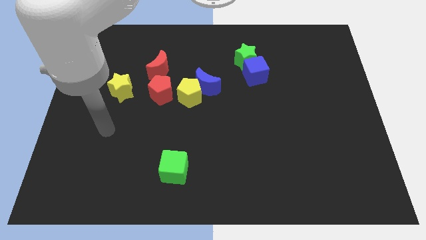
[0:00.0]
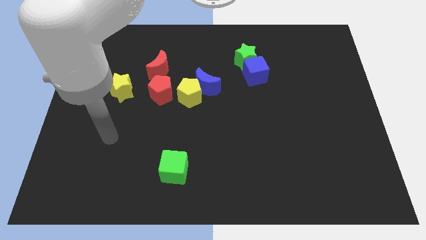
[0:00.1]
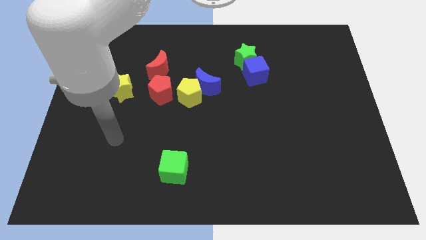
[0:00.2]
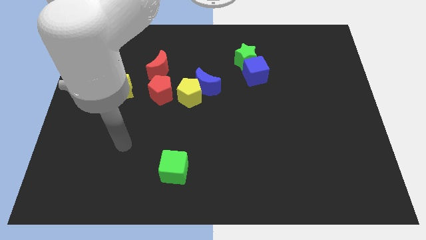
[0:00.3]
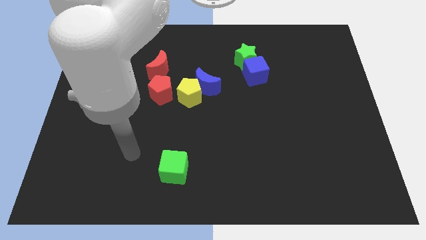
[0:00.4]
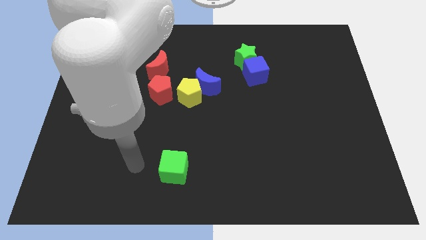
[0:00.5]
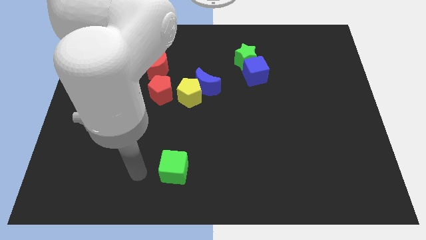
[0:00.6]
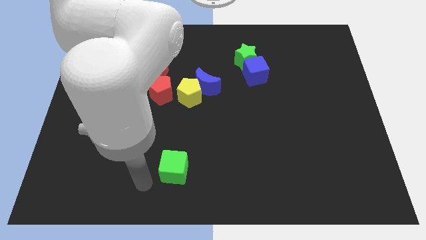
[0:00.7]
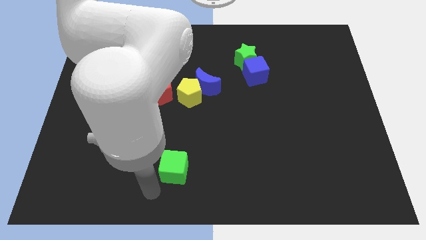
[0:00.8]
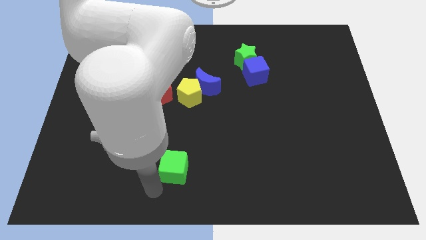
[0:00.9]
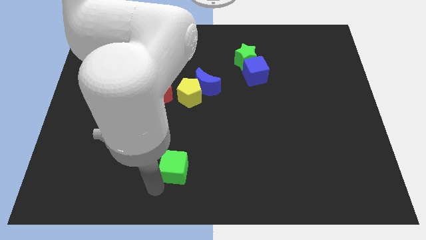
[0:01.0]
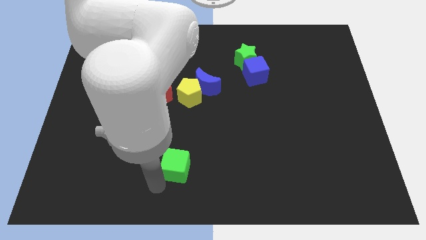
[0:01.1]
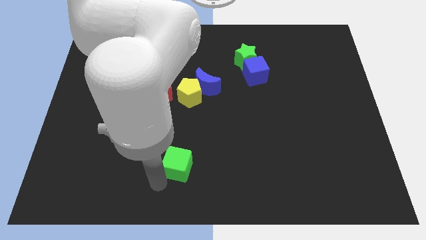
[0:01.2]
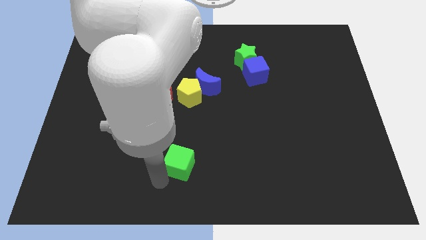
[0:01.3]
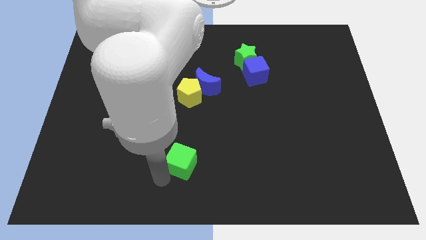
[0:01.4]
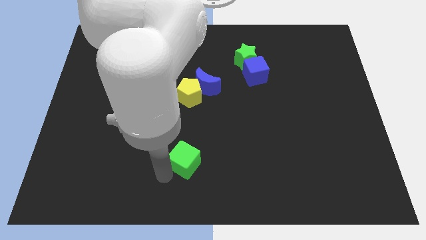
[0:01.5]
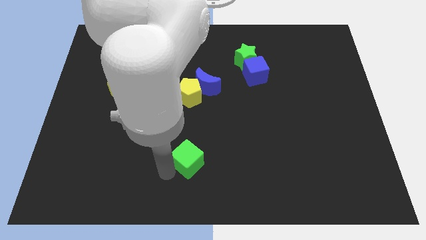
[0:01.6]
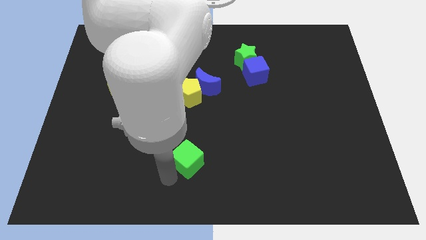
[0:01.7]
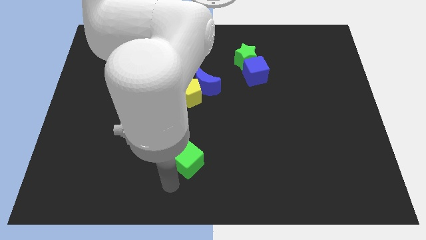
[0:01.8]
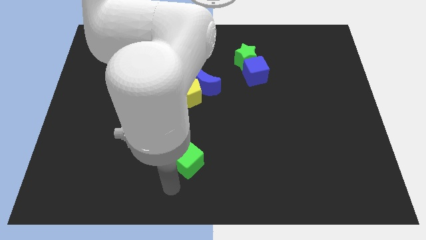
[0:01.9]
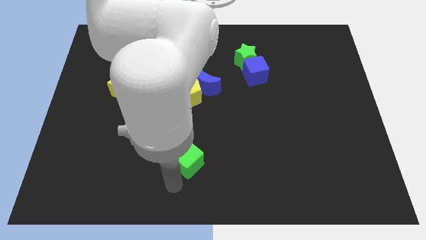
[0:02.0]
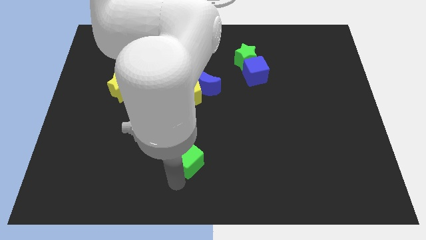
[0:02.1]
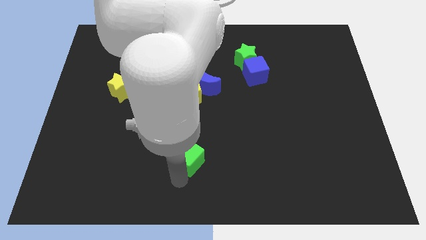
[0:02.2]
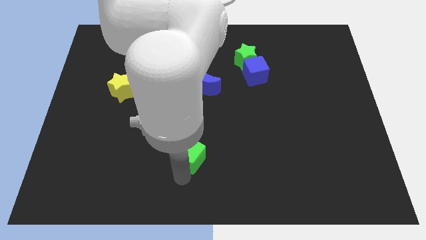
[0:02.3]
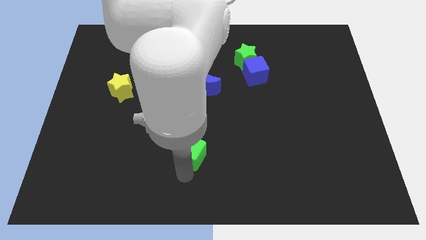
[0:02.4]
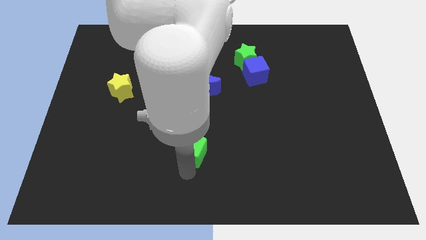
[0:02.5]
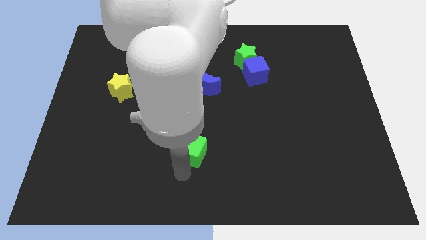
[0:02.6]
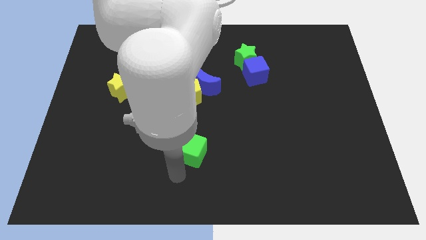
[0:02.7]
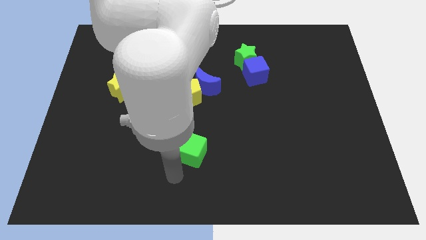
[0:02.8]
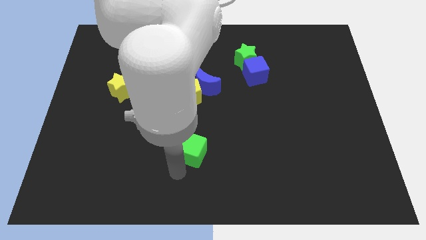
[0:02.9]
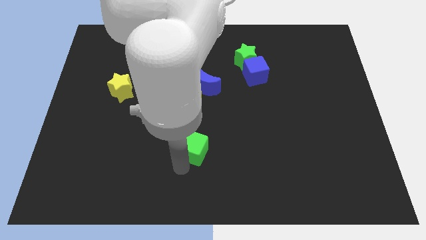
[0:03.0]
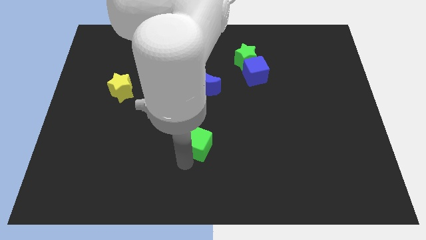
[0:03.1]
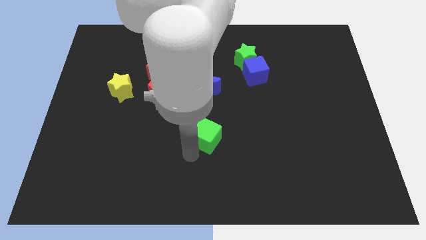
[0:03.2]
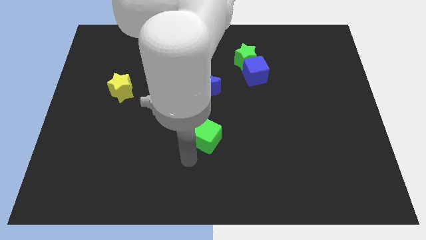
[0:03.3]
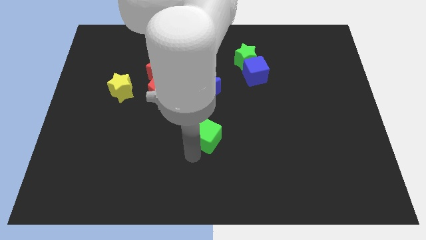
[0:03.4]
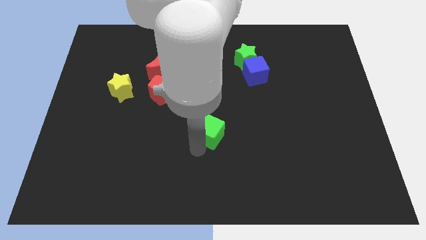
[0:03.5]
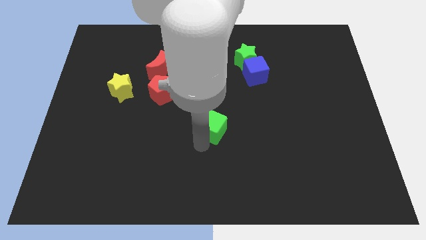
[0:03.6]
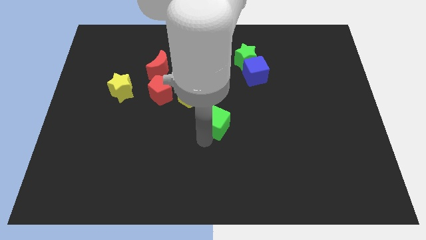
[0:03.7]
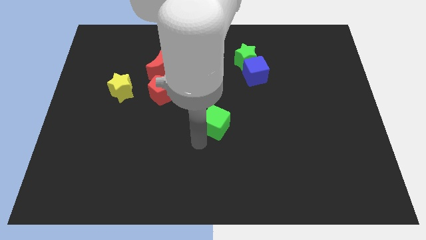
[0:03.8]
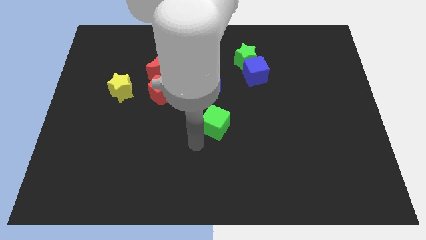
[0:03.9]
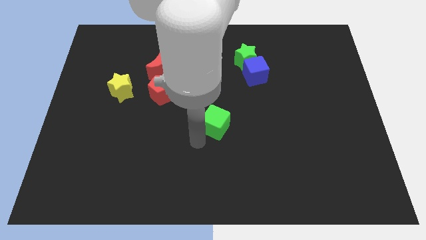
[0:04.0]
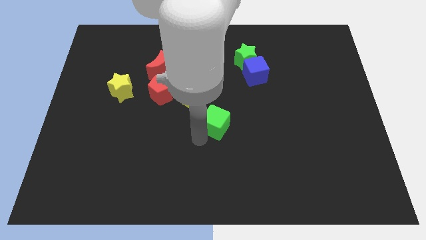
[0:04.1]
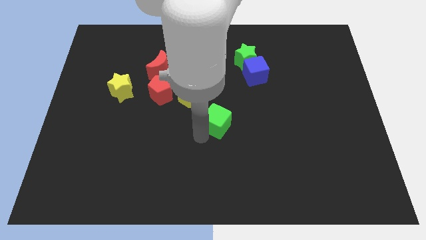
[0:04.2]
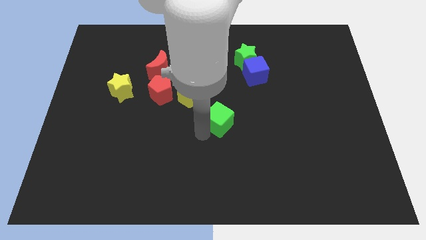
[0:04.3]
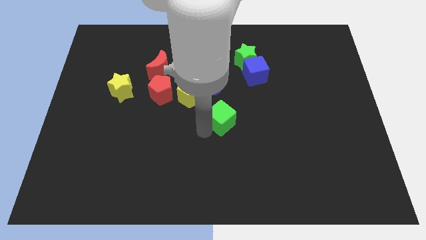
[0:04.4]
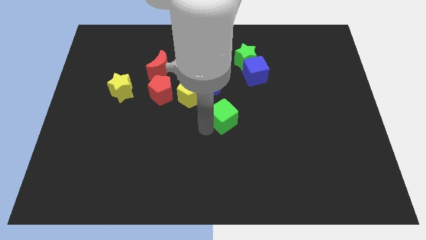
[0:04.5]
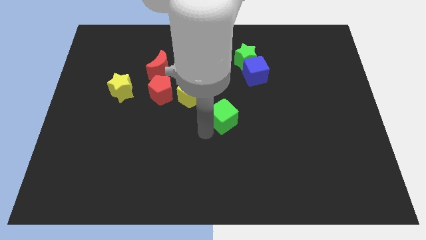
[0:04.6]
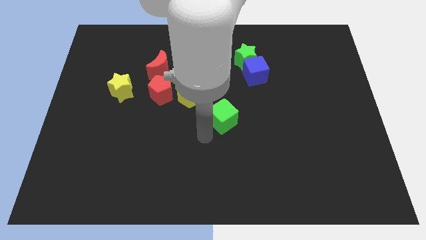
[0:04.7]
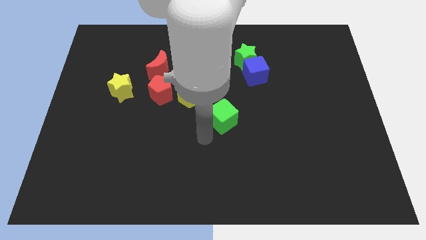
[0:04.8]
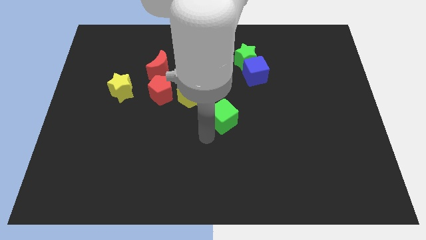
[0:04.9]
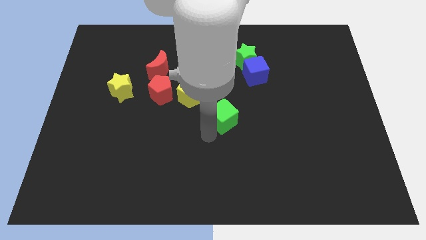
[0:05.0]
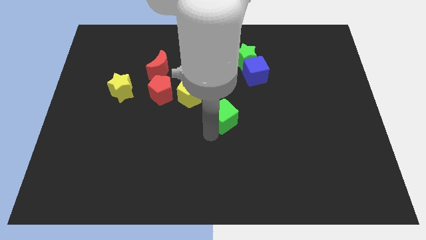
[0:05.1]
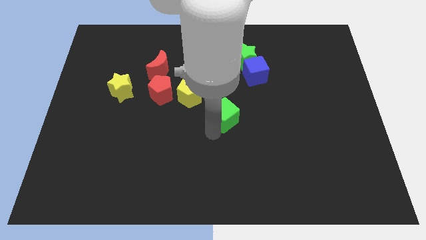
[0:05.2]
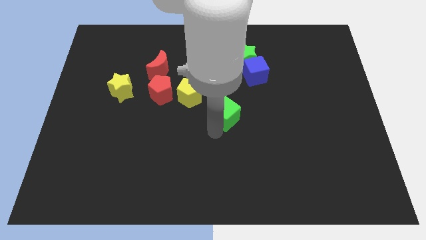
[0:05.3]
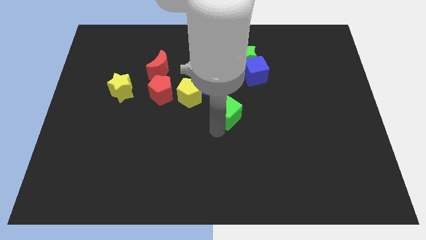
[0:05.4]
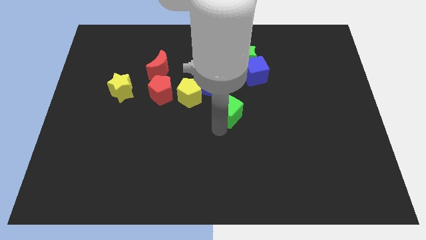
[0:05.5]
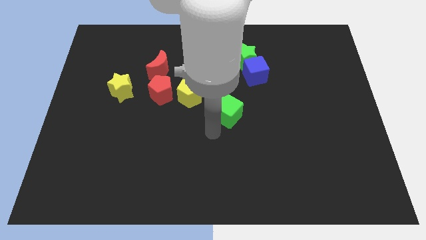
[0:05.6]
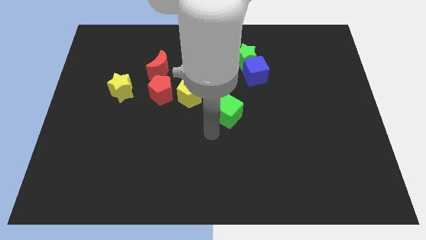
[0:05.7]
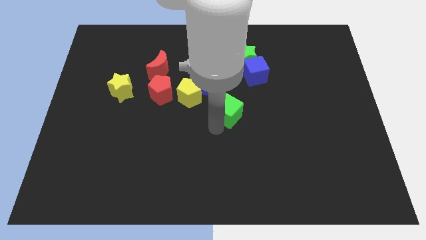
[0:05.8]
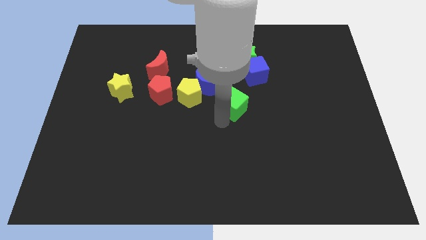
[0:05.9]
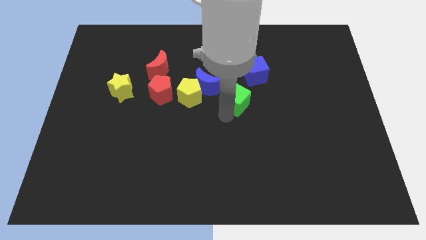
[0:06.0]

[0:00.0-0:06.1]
slide the green cube to the bottom of the green star
